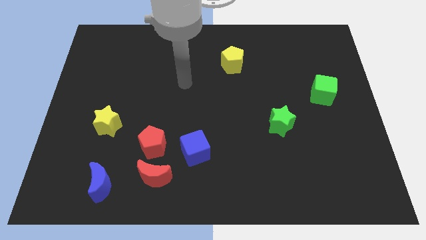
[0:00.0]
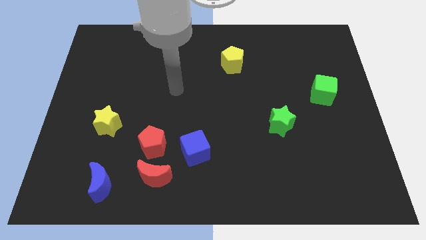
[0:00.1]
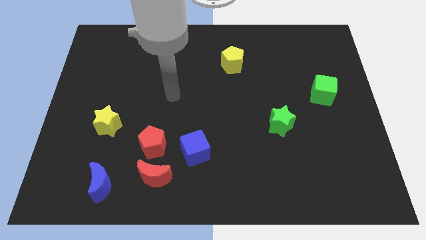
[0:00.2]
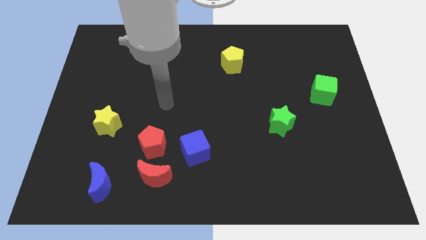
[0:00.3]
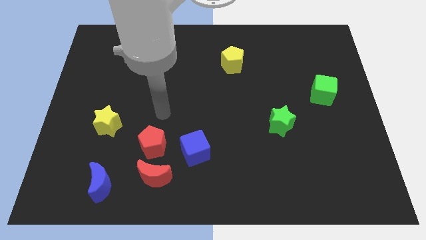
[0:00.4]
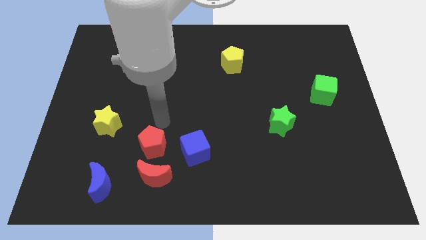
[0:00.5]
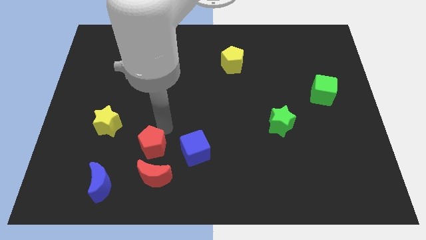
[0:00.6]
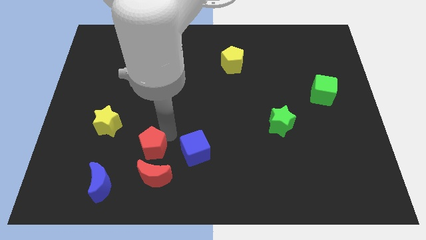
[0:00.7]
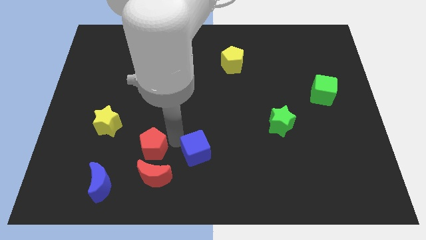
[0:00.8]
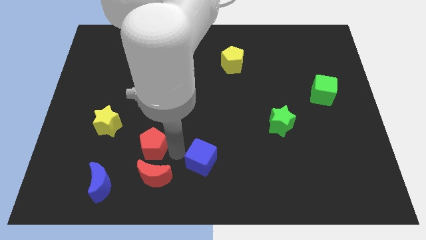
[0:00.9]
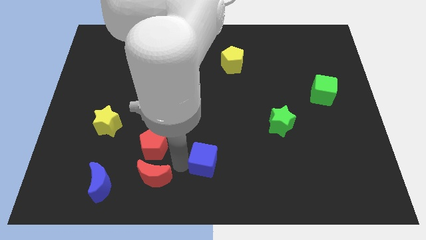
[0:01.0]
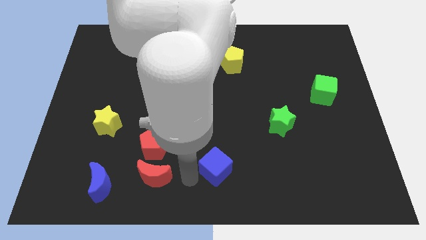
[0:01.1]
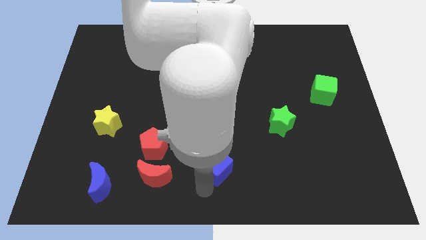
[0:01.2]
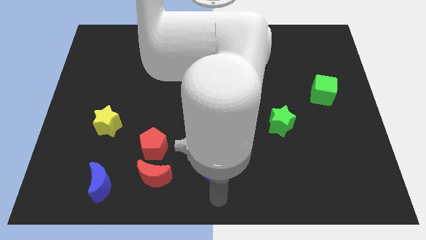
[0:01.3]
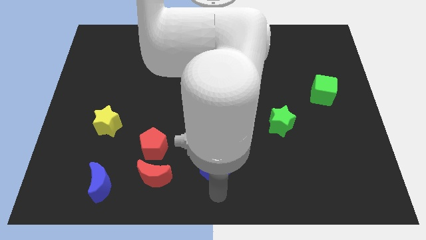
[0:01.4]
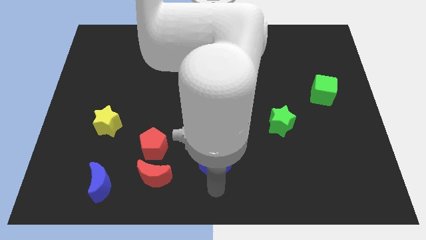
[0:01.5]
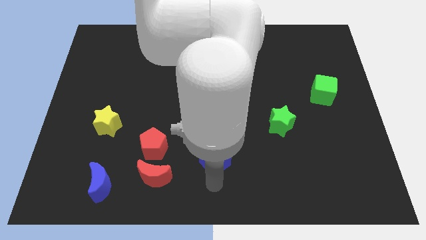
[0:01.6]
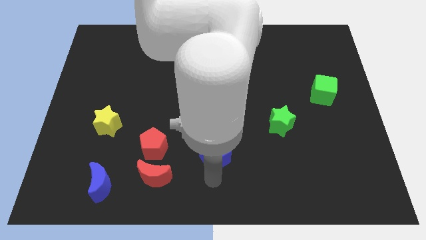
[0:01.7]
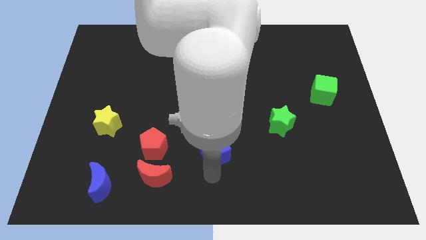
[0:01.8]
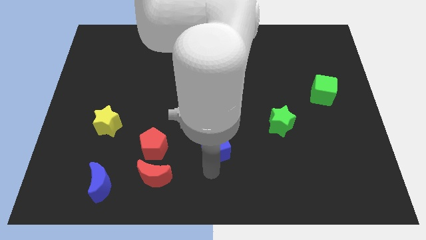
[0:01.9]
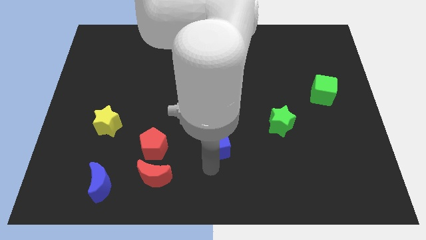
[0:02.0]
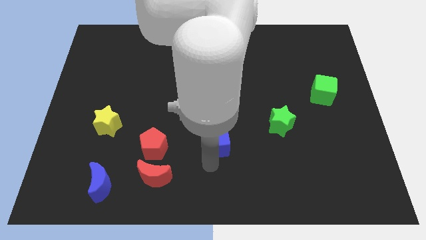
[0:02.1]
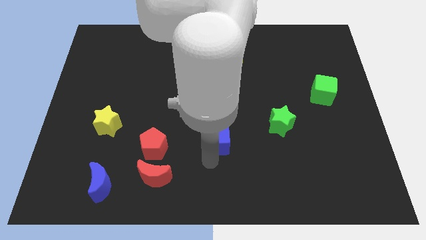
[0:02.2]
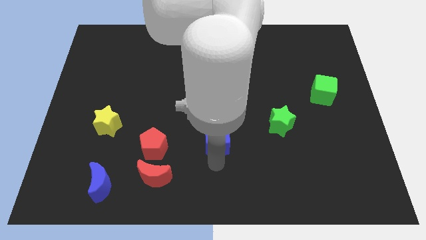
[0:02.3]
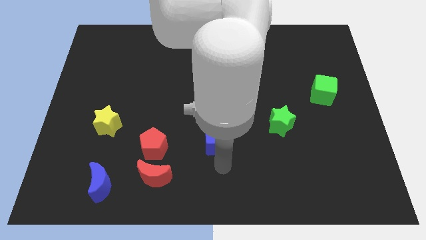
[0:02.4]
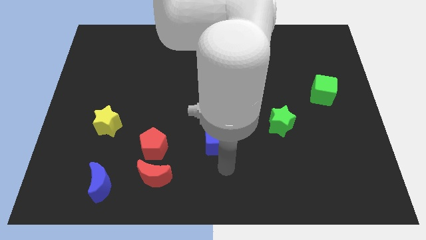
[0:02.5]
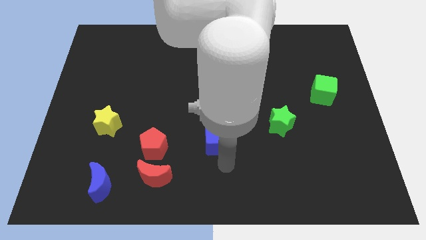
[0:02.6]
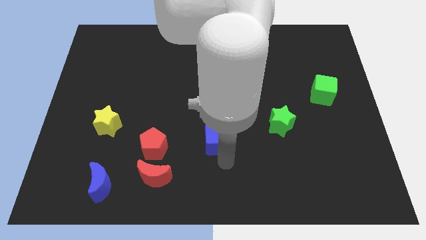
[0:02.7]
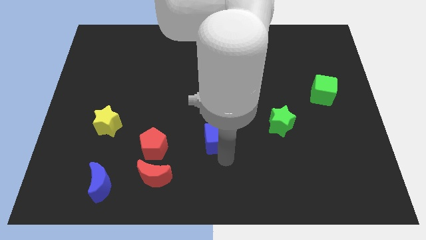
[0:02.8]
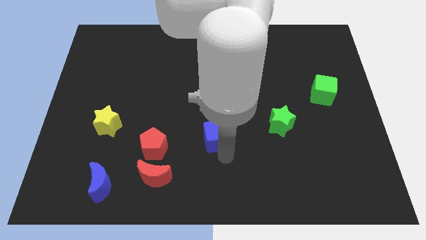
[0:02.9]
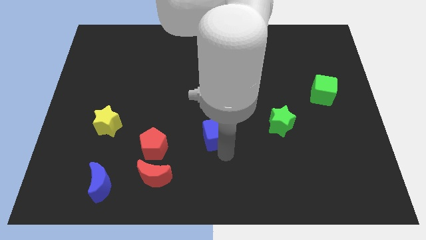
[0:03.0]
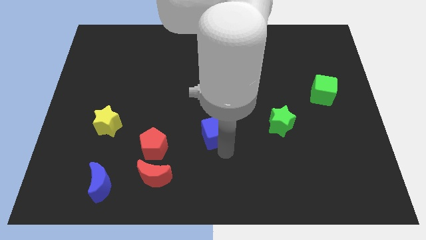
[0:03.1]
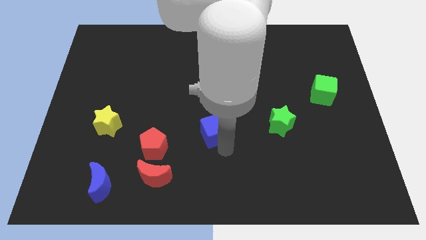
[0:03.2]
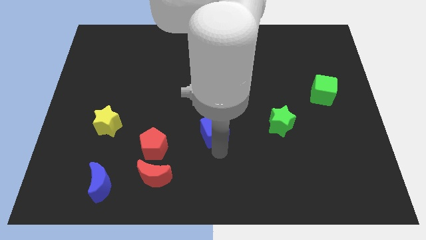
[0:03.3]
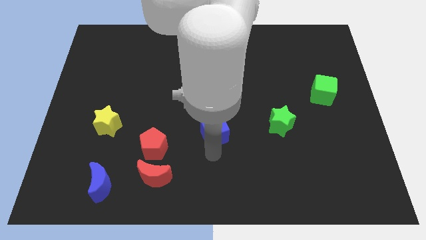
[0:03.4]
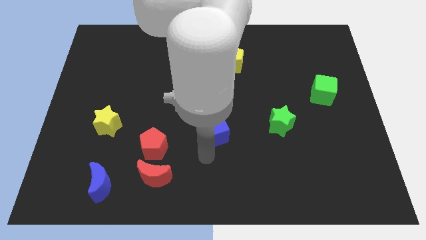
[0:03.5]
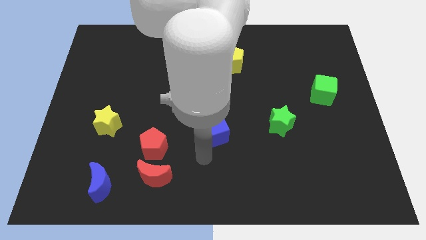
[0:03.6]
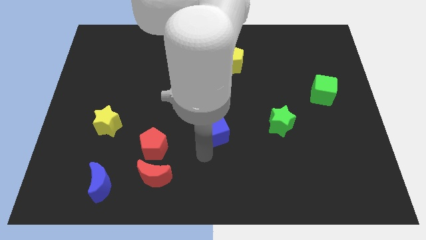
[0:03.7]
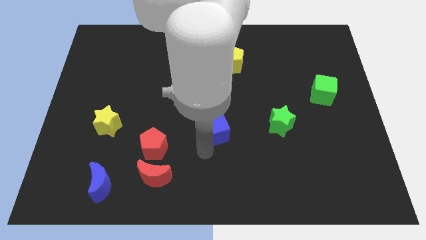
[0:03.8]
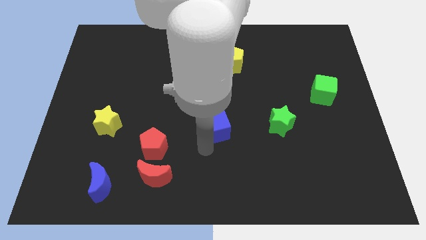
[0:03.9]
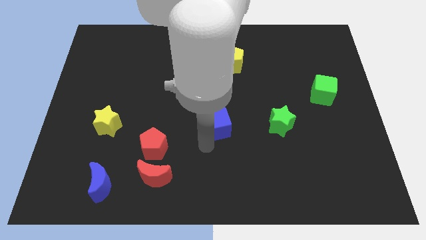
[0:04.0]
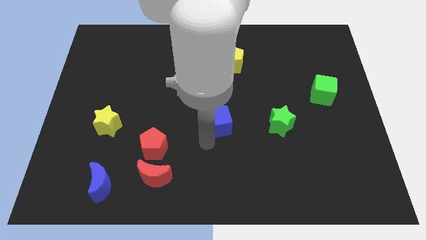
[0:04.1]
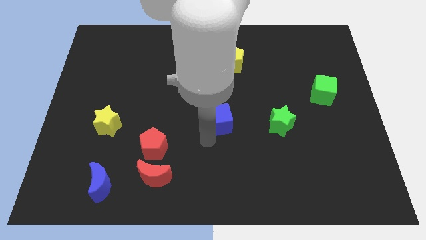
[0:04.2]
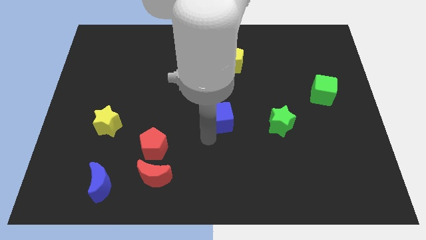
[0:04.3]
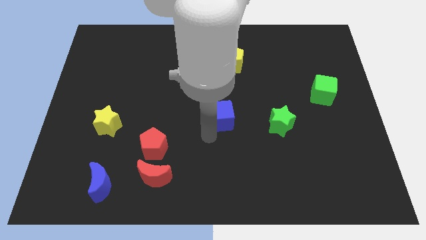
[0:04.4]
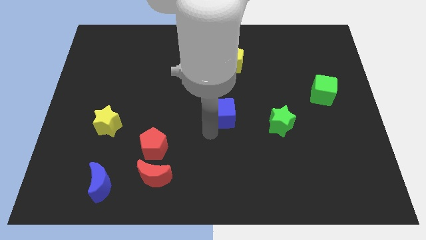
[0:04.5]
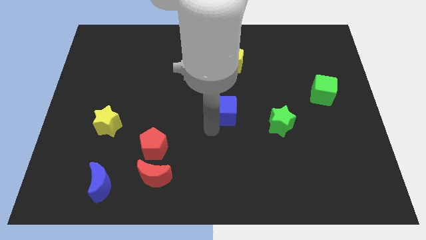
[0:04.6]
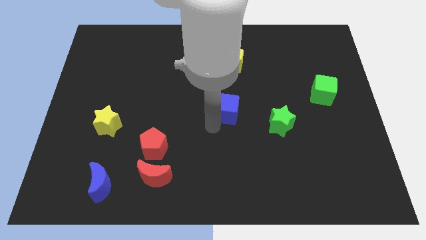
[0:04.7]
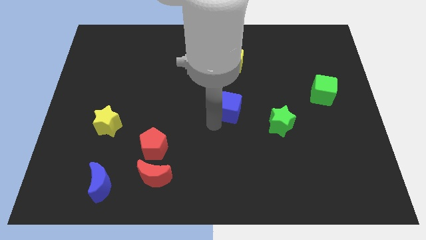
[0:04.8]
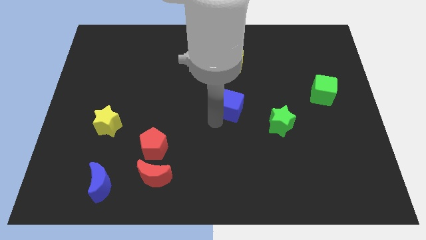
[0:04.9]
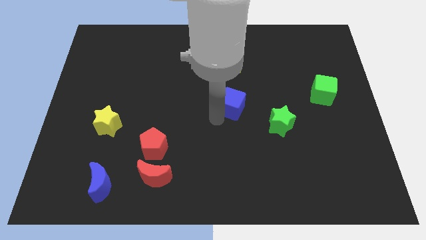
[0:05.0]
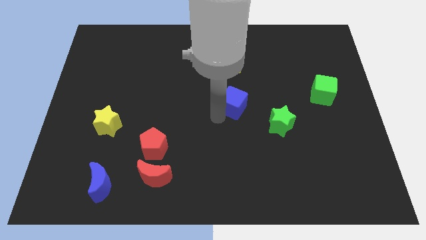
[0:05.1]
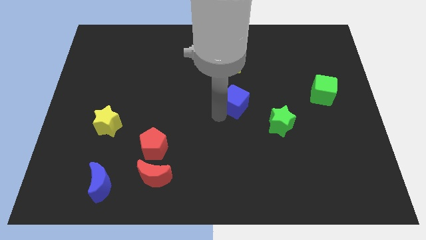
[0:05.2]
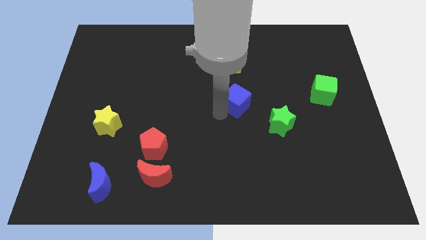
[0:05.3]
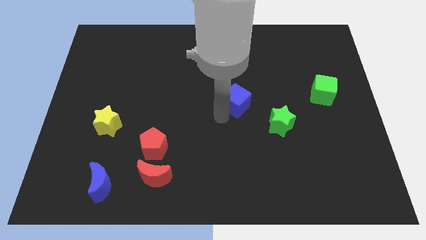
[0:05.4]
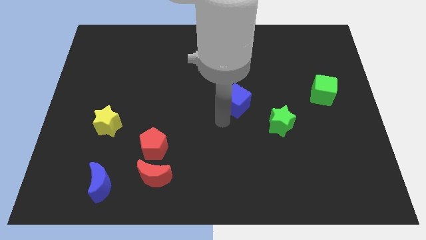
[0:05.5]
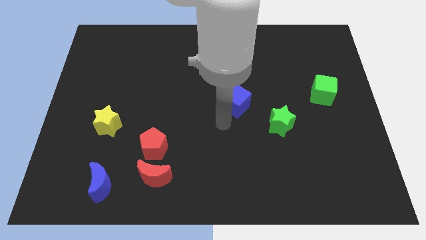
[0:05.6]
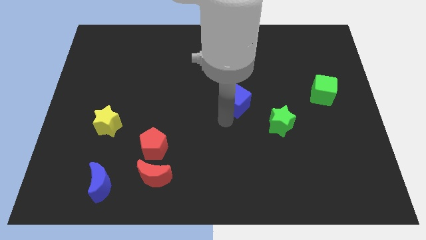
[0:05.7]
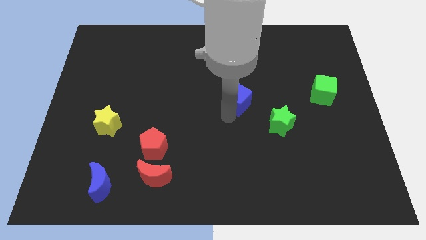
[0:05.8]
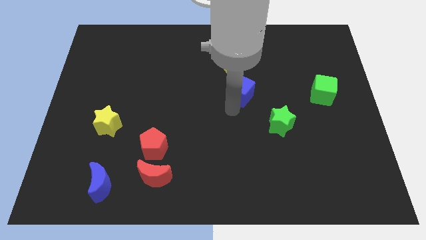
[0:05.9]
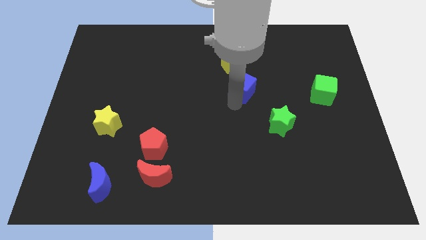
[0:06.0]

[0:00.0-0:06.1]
put the blue cube to the bottom right side of the yellow pentagon

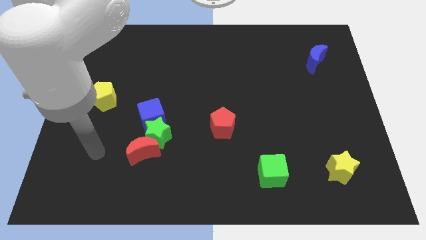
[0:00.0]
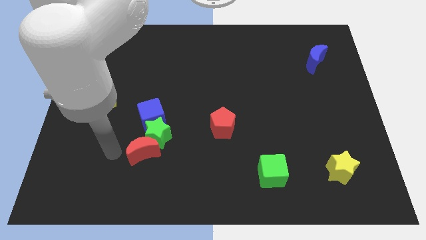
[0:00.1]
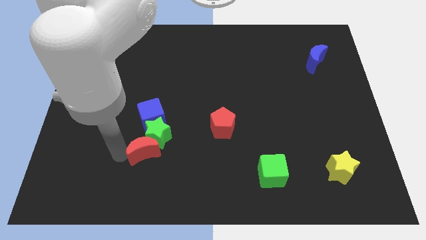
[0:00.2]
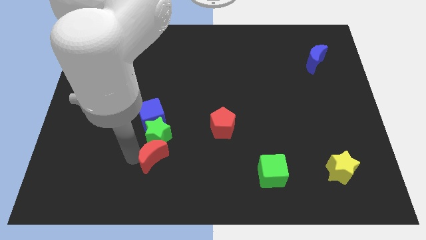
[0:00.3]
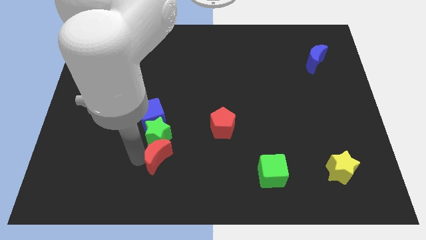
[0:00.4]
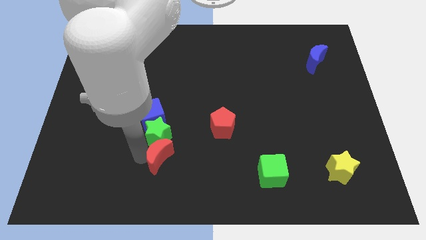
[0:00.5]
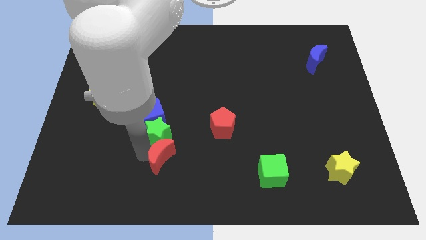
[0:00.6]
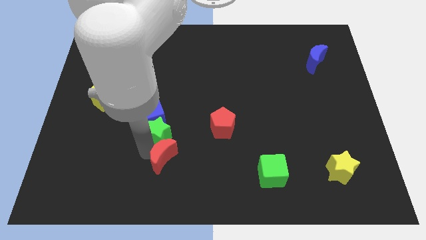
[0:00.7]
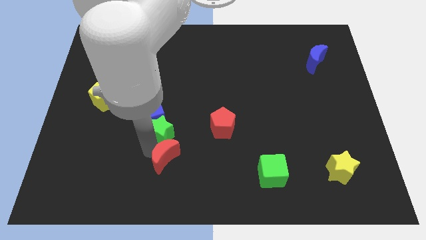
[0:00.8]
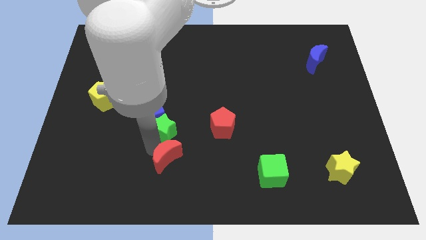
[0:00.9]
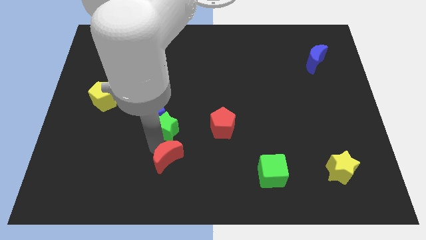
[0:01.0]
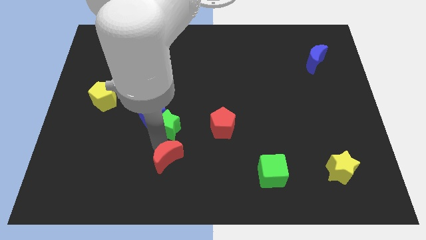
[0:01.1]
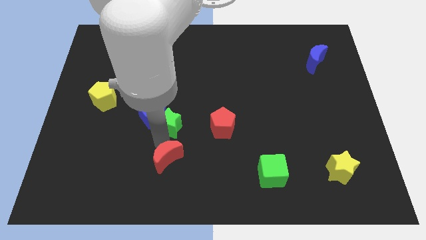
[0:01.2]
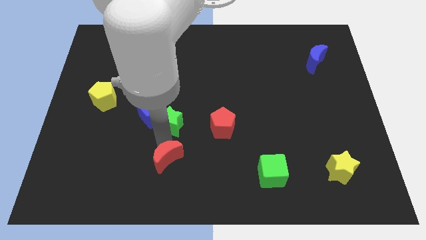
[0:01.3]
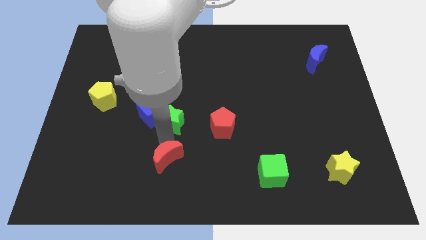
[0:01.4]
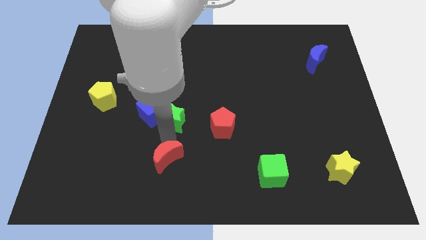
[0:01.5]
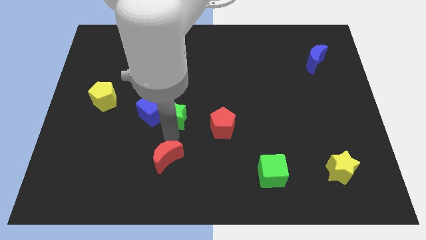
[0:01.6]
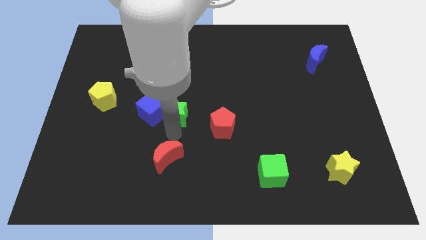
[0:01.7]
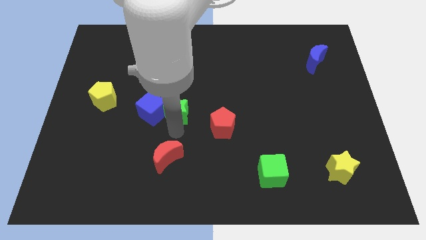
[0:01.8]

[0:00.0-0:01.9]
move the green star to the top right of the blue cube
